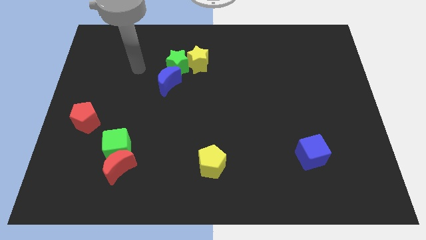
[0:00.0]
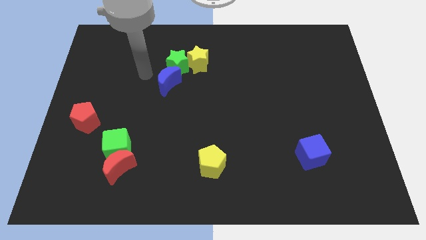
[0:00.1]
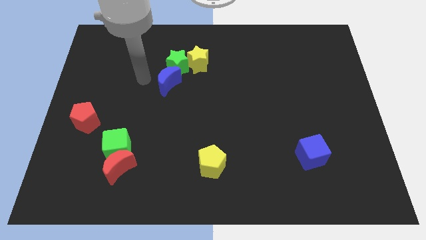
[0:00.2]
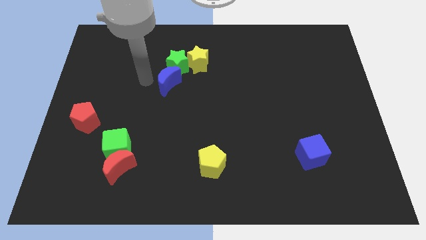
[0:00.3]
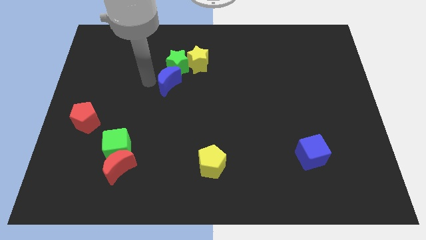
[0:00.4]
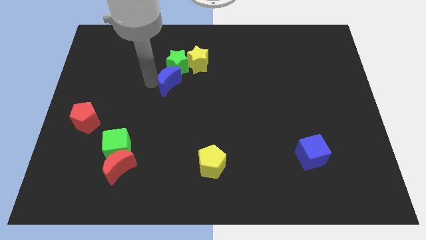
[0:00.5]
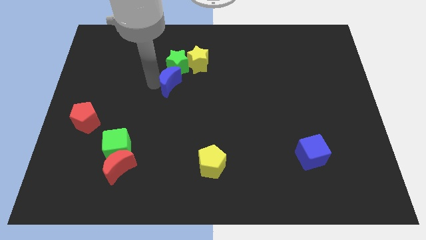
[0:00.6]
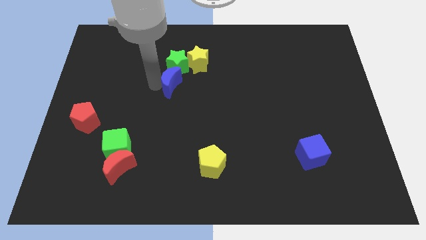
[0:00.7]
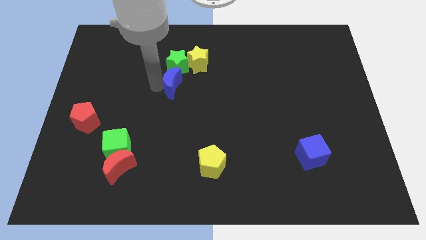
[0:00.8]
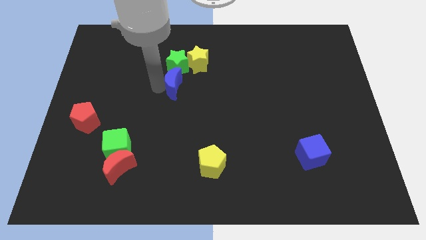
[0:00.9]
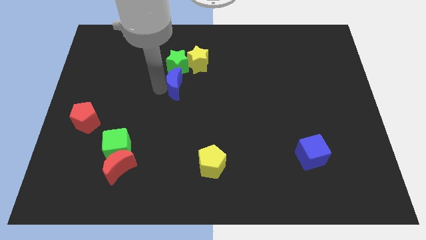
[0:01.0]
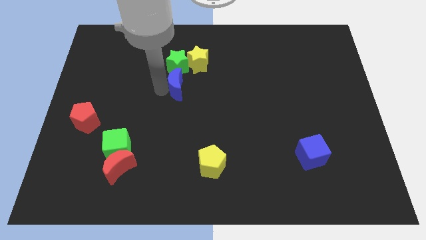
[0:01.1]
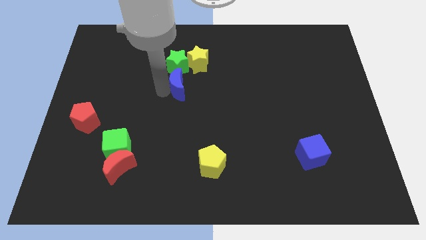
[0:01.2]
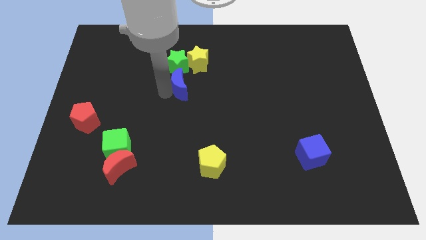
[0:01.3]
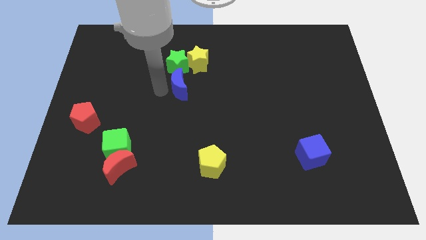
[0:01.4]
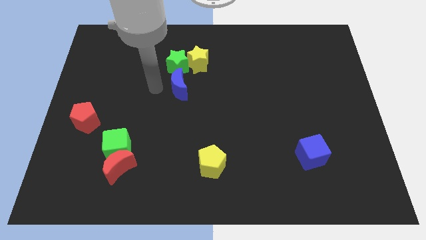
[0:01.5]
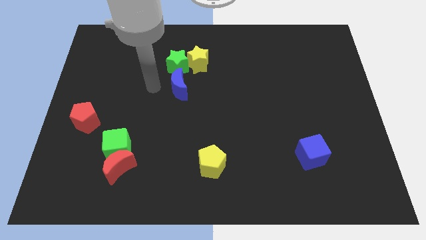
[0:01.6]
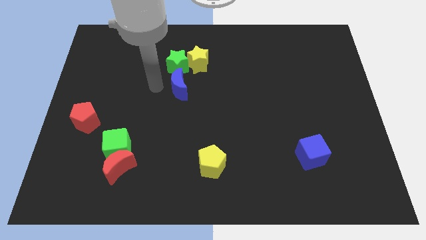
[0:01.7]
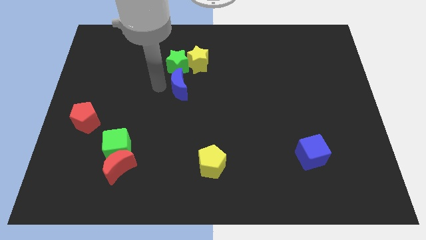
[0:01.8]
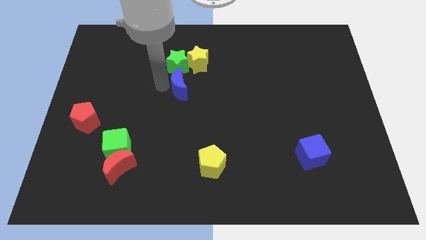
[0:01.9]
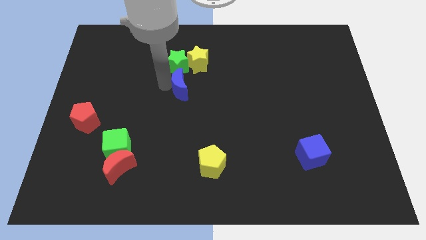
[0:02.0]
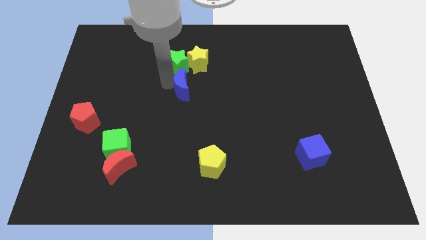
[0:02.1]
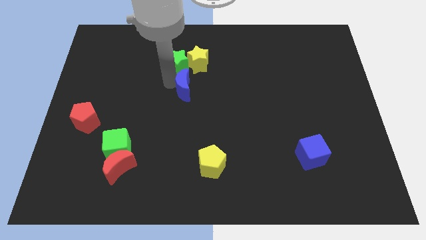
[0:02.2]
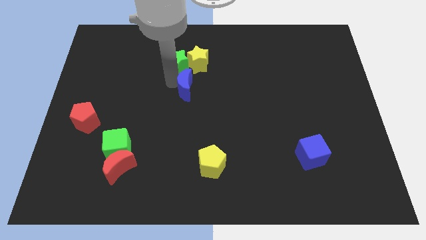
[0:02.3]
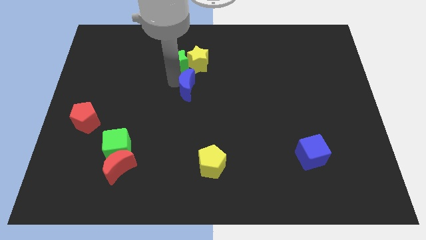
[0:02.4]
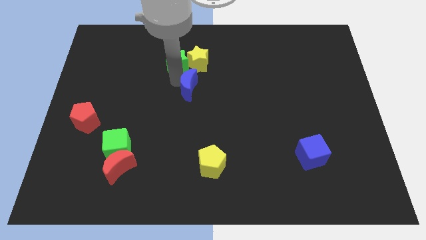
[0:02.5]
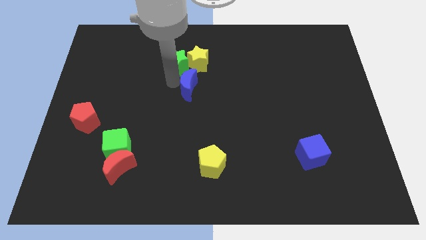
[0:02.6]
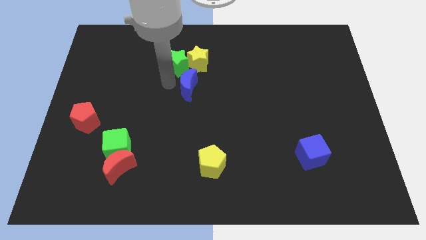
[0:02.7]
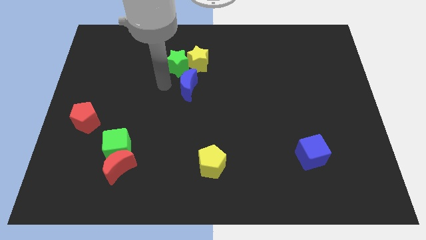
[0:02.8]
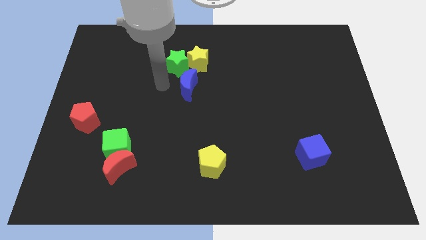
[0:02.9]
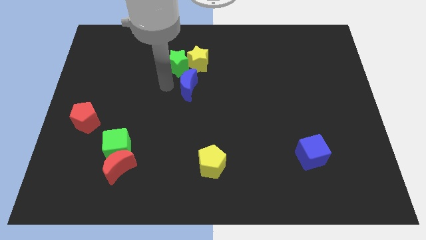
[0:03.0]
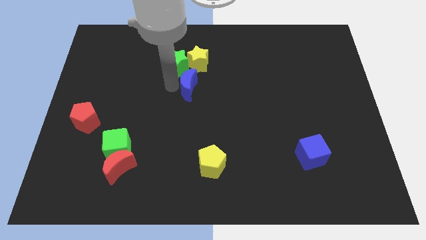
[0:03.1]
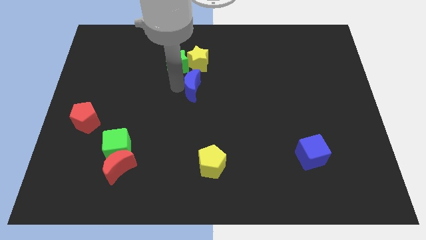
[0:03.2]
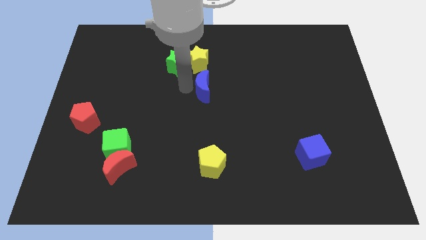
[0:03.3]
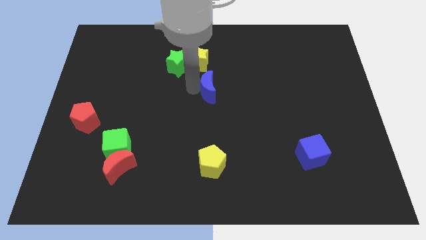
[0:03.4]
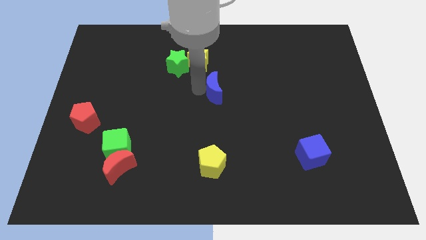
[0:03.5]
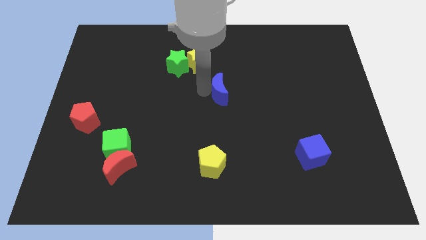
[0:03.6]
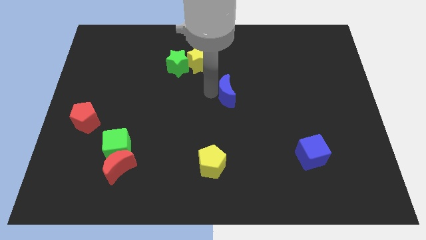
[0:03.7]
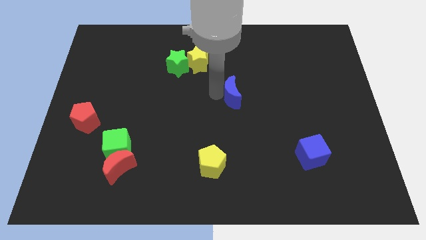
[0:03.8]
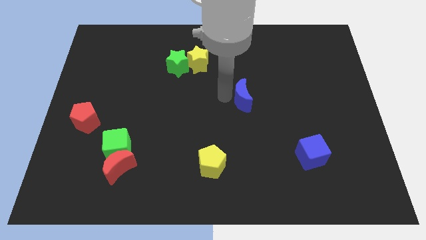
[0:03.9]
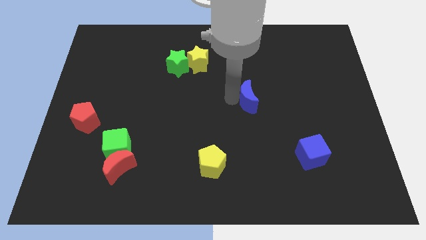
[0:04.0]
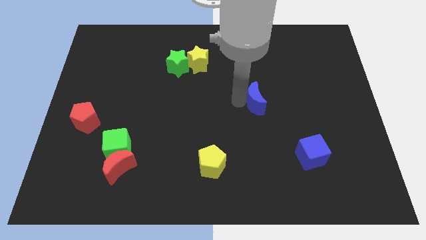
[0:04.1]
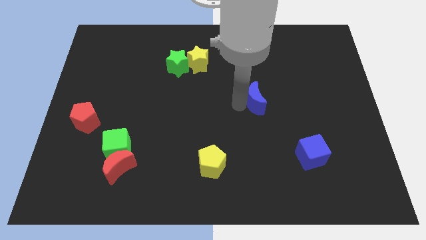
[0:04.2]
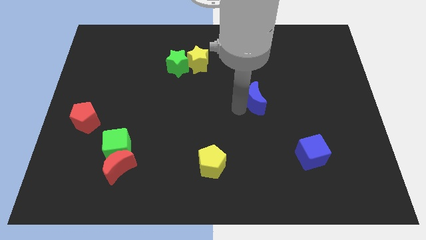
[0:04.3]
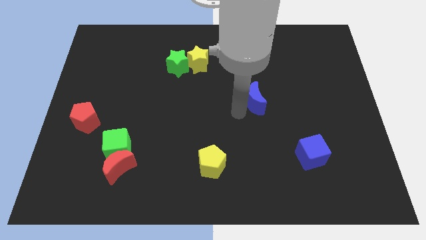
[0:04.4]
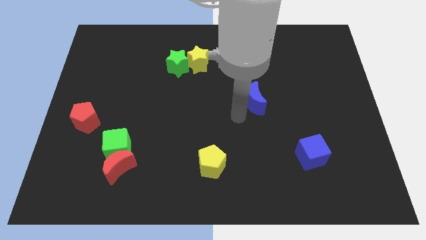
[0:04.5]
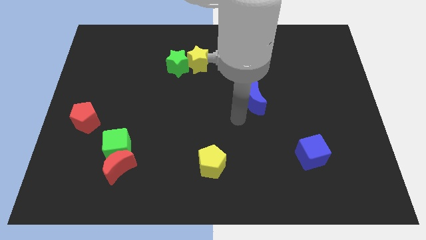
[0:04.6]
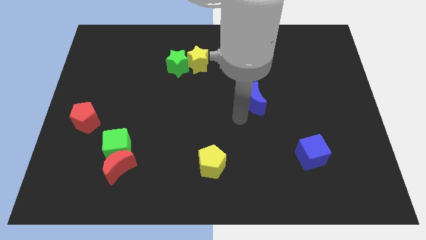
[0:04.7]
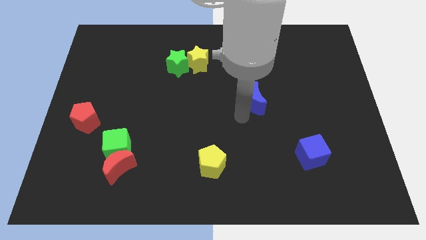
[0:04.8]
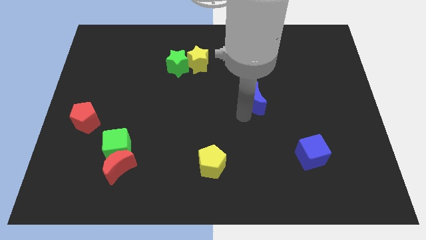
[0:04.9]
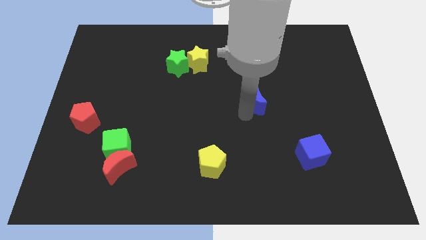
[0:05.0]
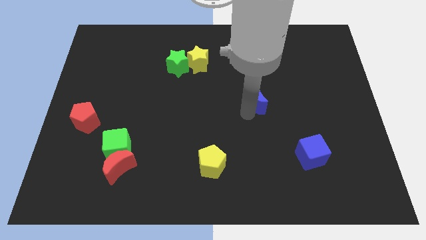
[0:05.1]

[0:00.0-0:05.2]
slide the blue moon to the right

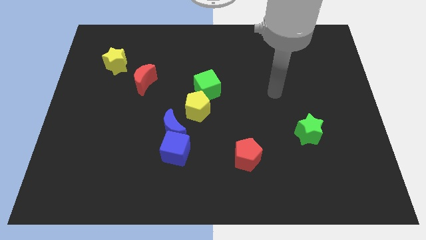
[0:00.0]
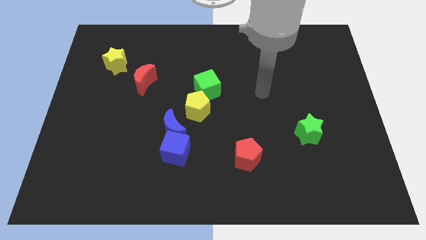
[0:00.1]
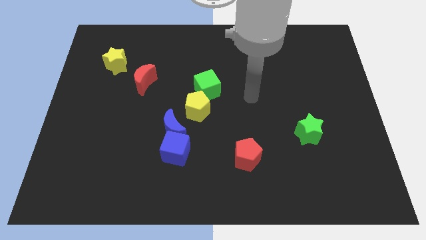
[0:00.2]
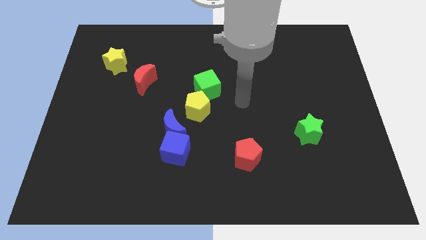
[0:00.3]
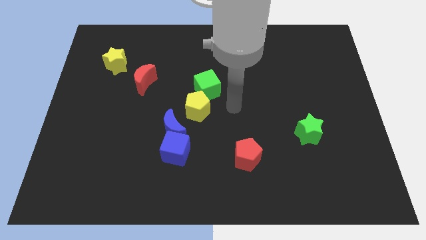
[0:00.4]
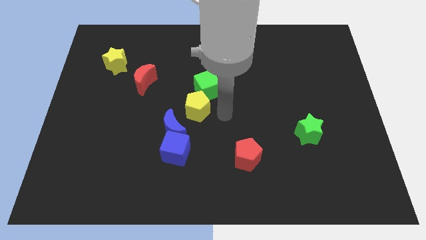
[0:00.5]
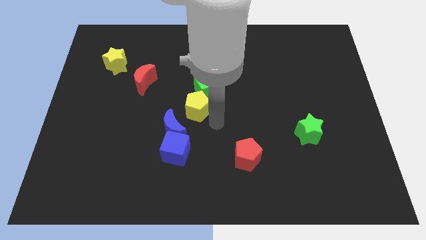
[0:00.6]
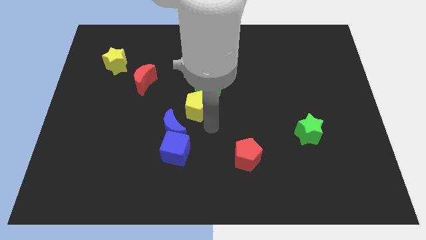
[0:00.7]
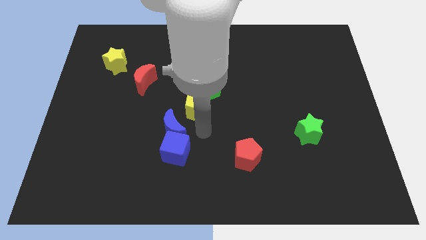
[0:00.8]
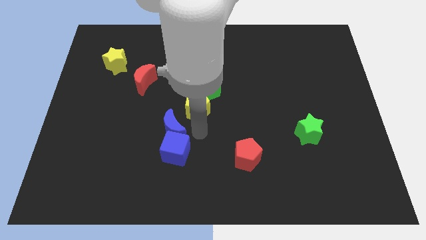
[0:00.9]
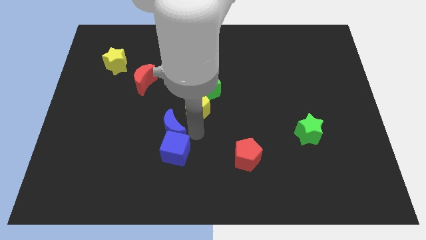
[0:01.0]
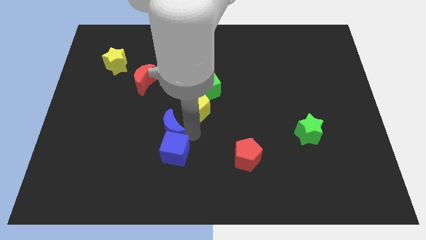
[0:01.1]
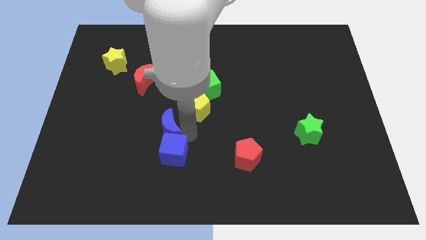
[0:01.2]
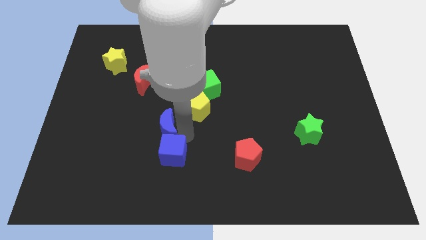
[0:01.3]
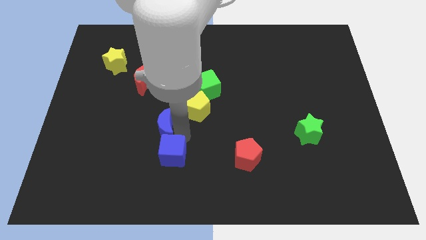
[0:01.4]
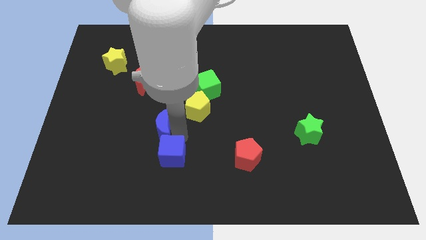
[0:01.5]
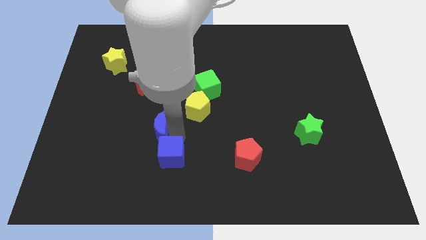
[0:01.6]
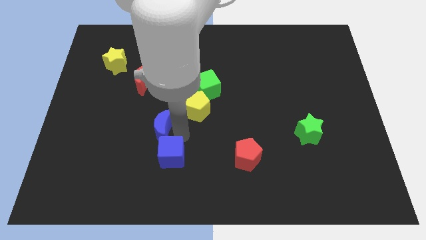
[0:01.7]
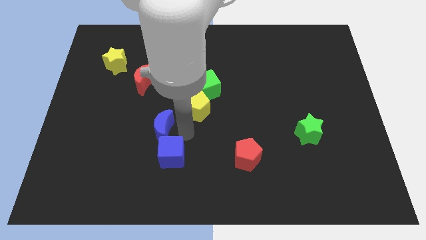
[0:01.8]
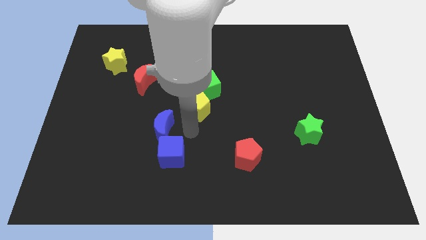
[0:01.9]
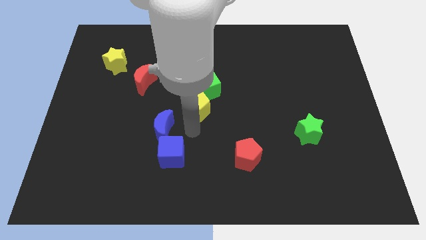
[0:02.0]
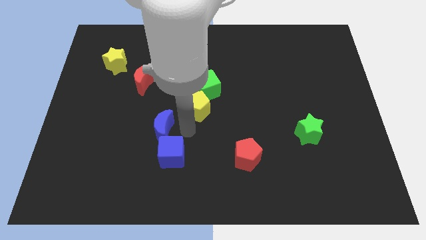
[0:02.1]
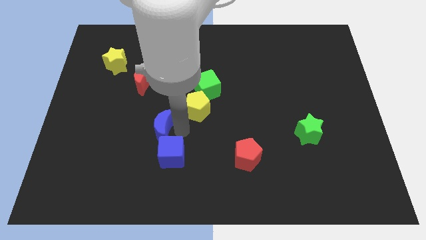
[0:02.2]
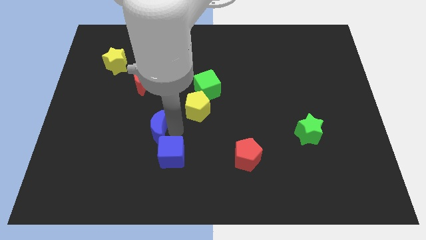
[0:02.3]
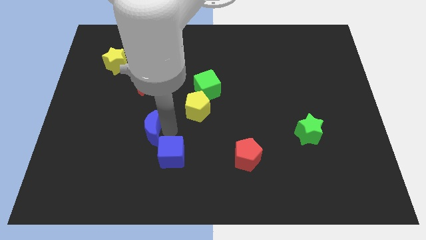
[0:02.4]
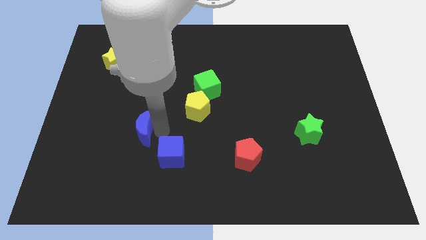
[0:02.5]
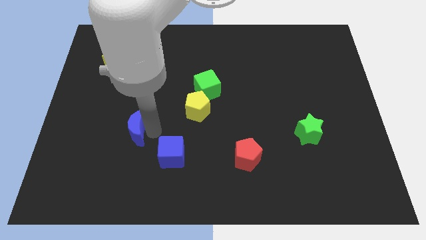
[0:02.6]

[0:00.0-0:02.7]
slightly slide the blue moon left

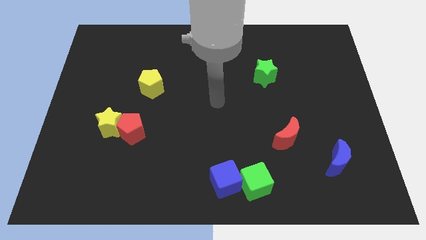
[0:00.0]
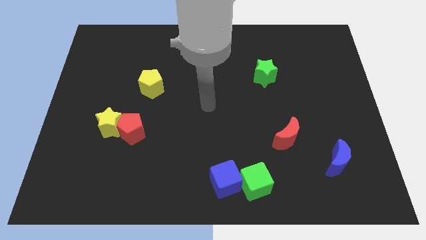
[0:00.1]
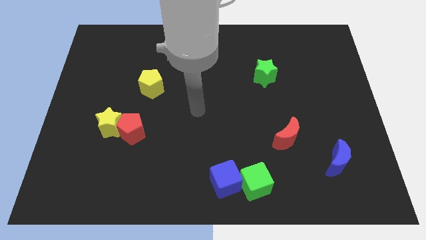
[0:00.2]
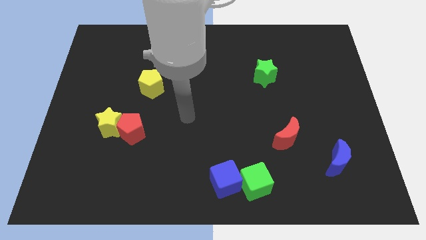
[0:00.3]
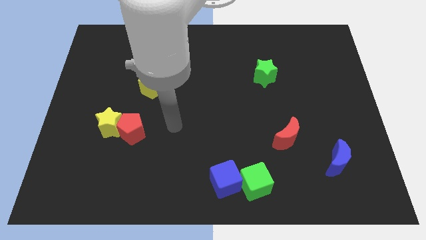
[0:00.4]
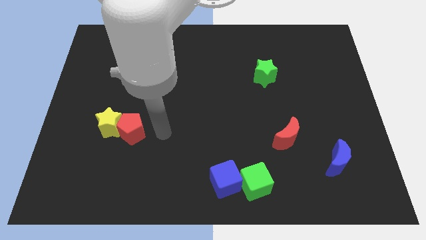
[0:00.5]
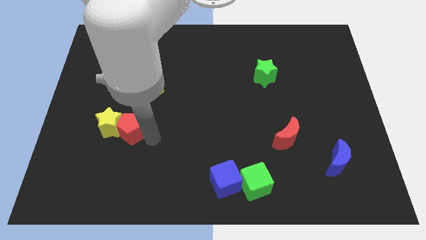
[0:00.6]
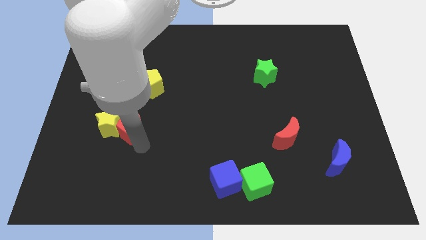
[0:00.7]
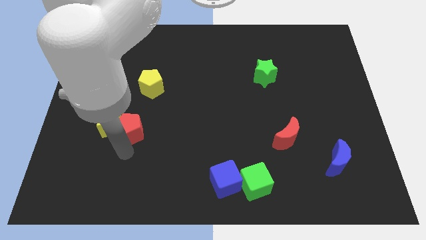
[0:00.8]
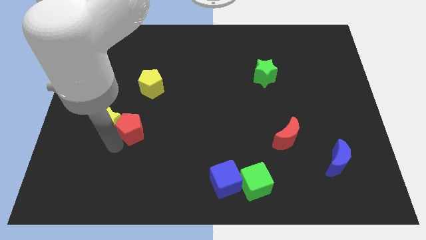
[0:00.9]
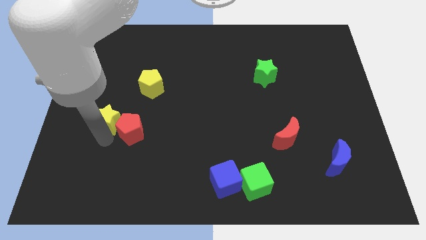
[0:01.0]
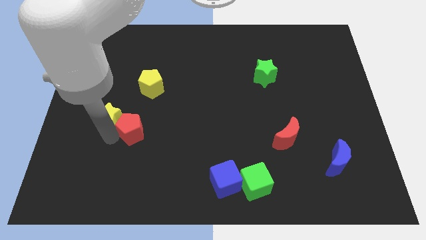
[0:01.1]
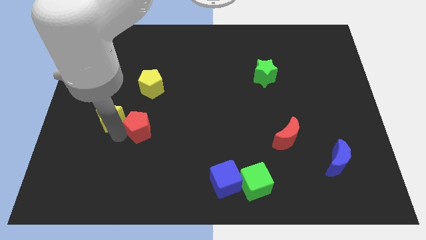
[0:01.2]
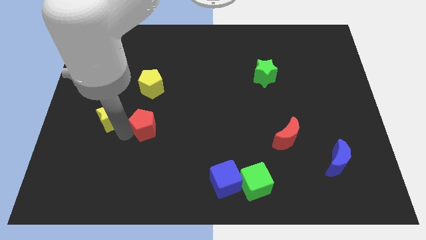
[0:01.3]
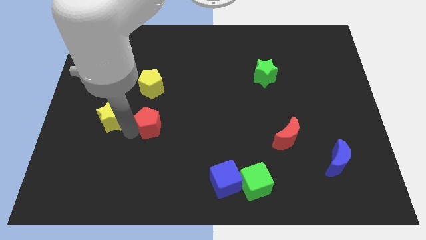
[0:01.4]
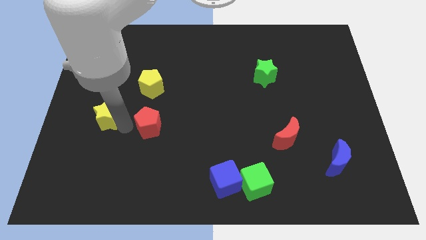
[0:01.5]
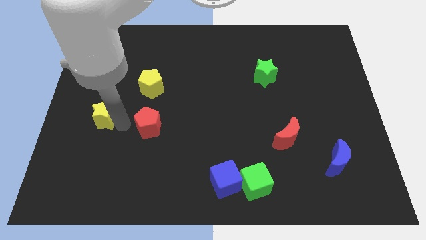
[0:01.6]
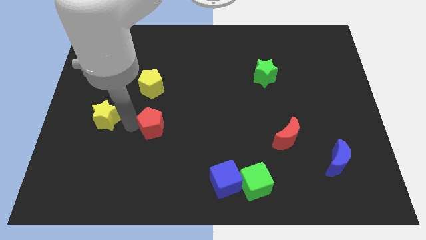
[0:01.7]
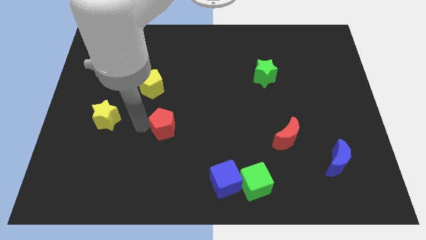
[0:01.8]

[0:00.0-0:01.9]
slightly push the red pentagon right
